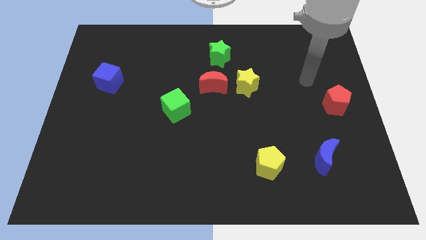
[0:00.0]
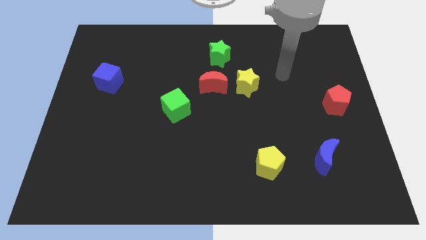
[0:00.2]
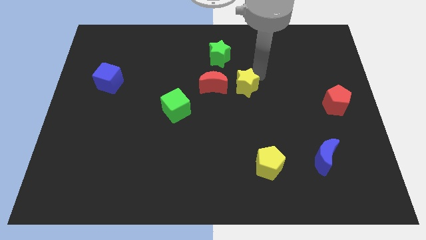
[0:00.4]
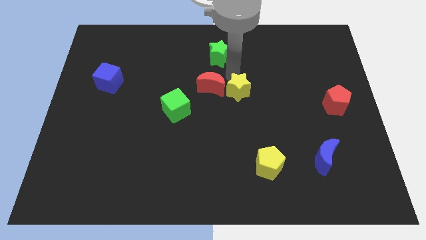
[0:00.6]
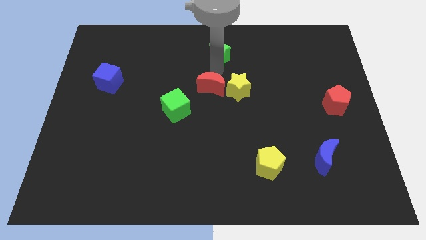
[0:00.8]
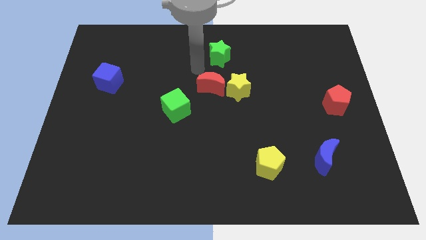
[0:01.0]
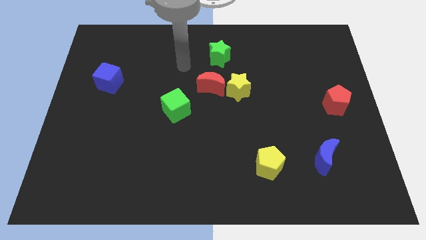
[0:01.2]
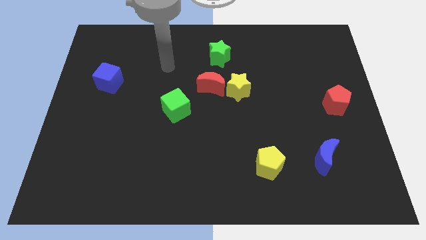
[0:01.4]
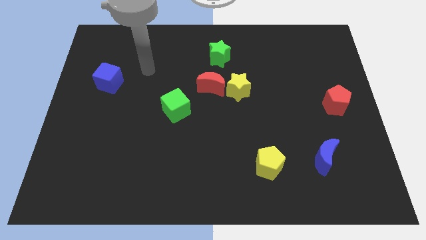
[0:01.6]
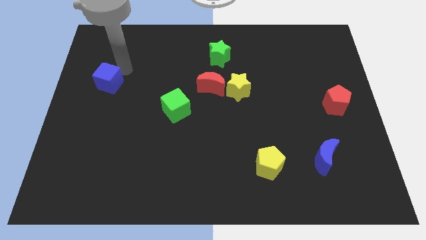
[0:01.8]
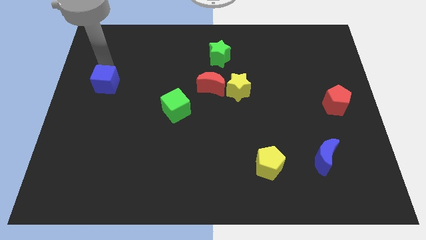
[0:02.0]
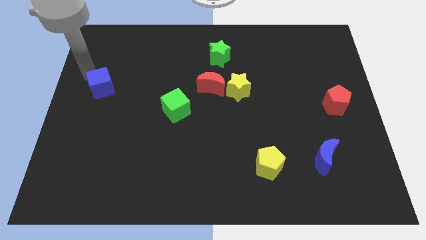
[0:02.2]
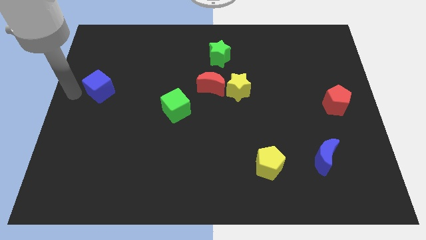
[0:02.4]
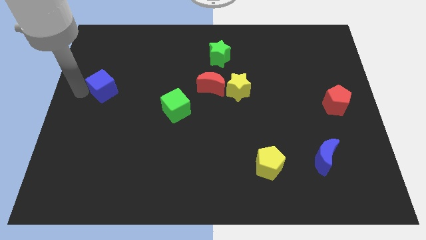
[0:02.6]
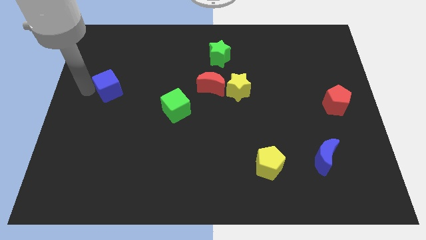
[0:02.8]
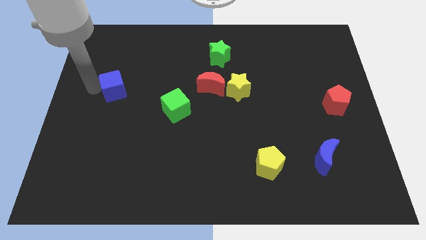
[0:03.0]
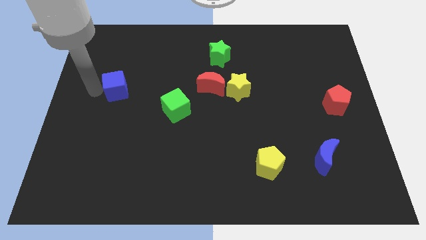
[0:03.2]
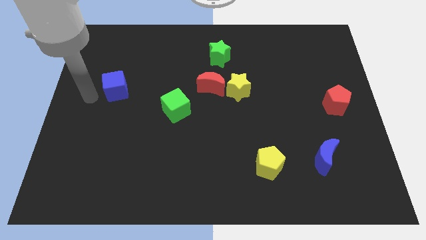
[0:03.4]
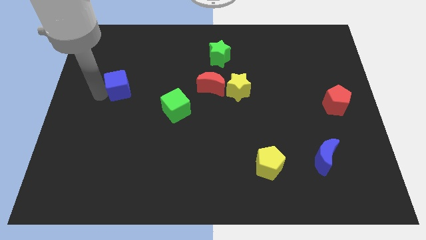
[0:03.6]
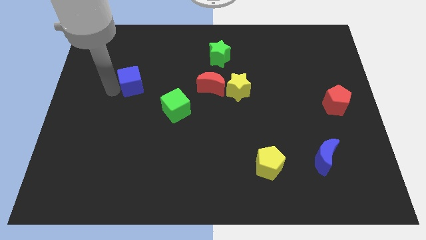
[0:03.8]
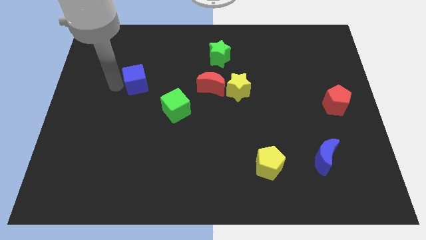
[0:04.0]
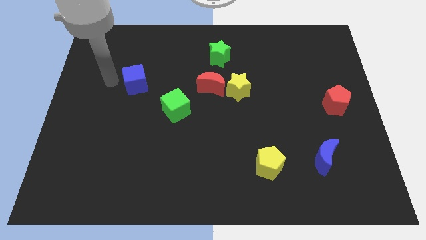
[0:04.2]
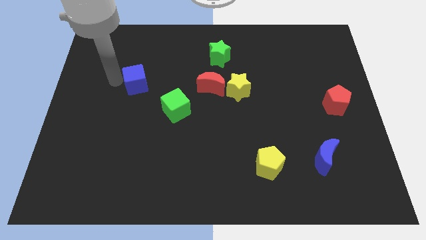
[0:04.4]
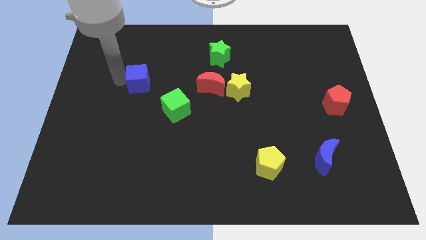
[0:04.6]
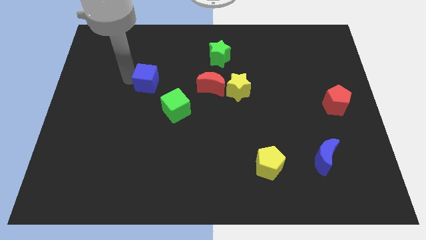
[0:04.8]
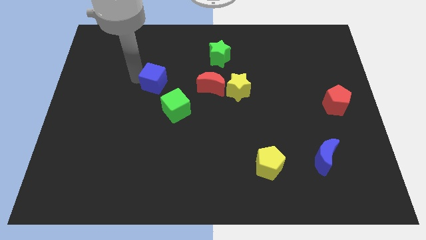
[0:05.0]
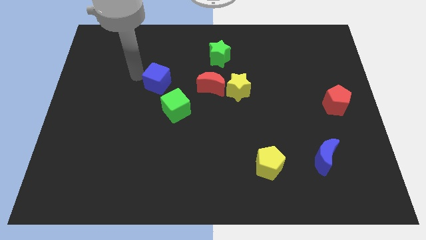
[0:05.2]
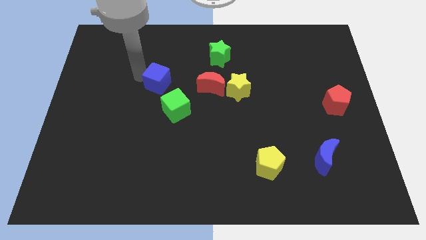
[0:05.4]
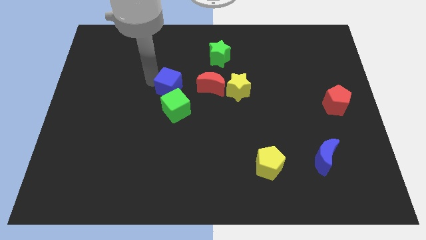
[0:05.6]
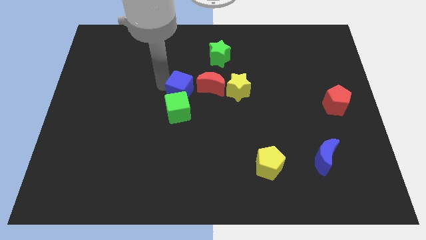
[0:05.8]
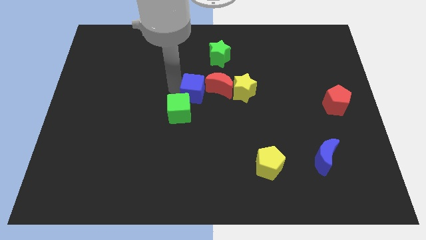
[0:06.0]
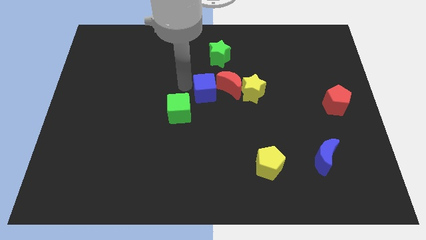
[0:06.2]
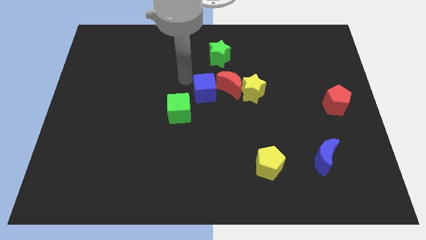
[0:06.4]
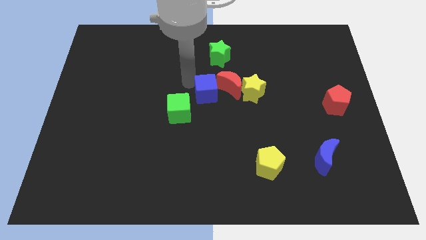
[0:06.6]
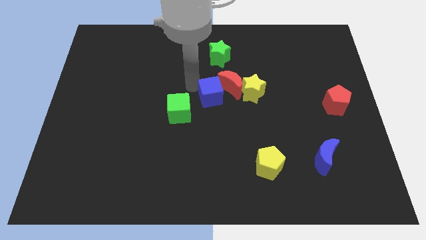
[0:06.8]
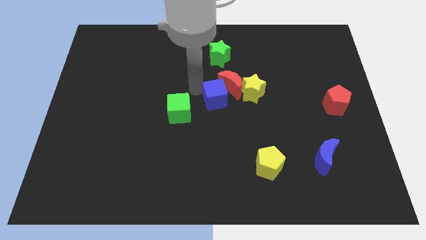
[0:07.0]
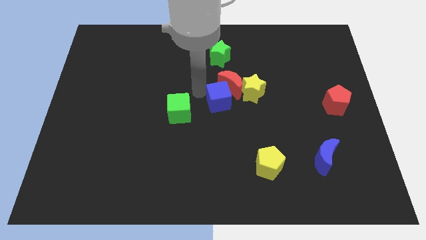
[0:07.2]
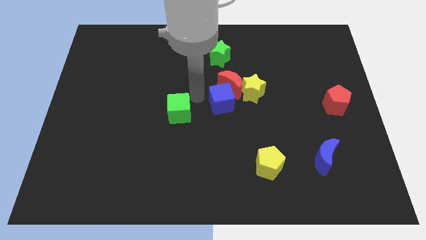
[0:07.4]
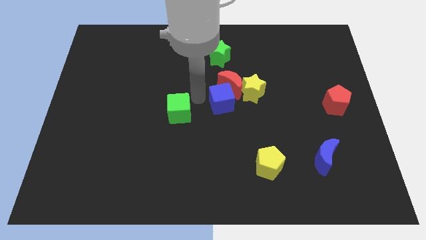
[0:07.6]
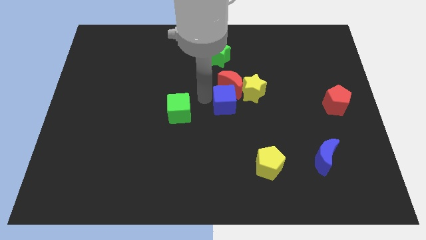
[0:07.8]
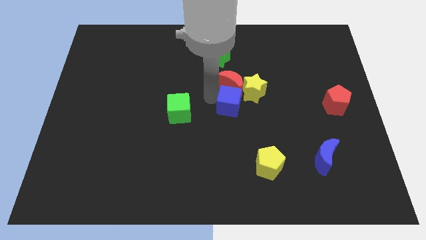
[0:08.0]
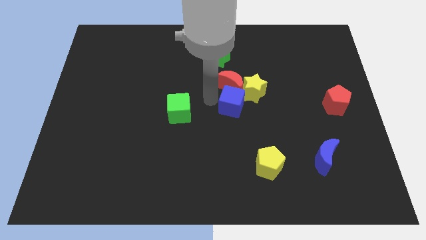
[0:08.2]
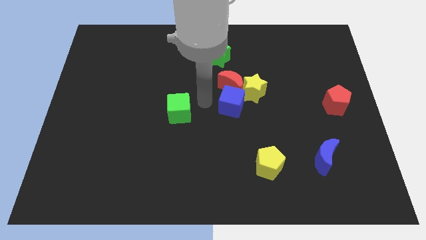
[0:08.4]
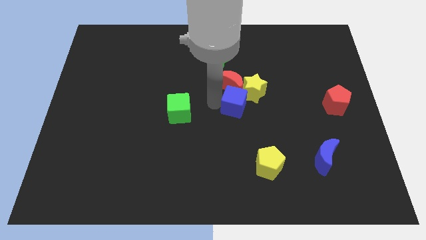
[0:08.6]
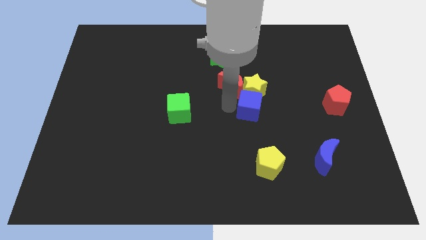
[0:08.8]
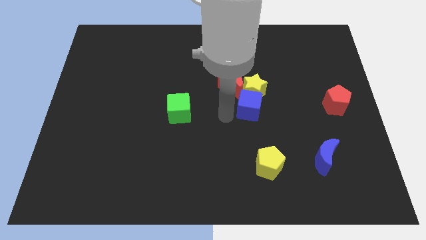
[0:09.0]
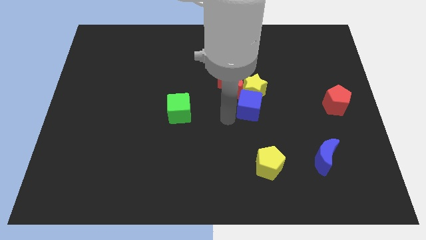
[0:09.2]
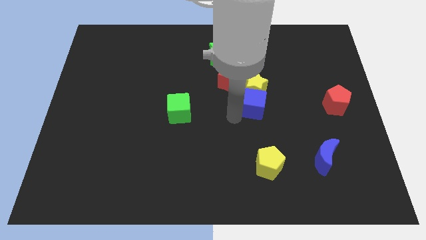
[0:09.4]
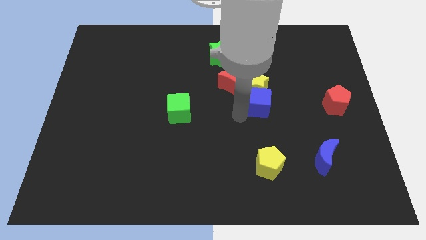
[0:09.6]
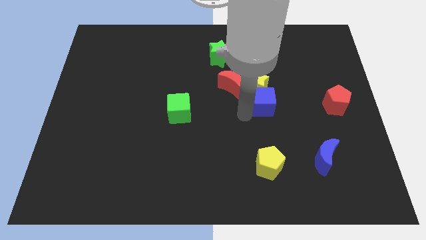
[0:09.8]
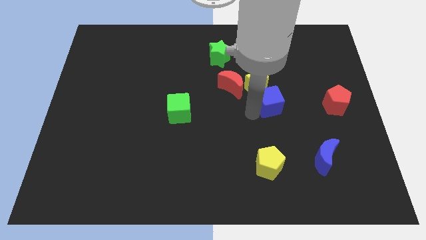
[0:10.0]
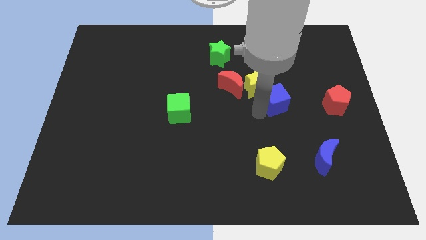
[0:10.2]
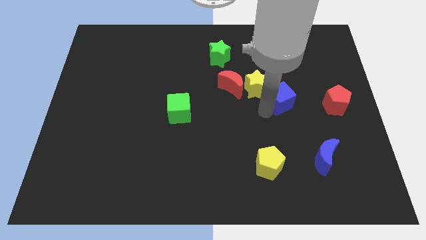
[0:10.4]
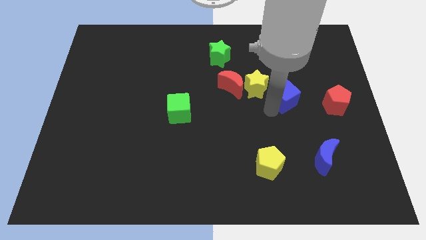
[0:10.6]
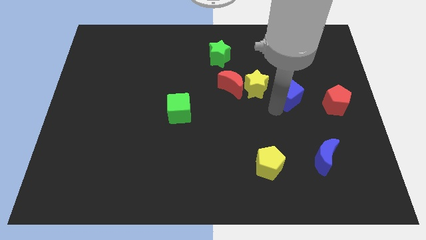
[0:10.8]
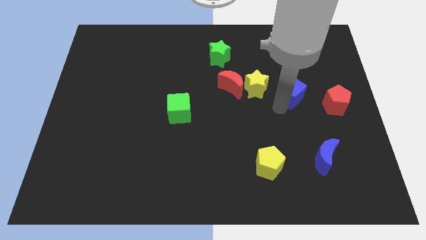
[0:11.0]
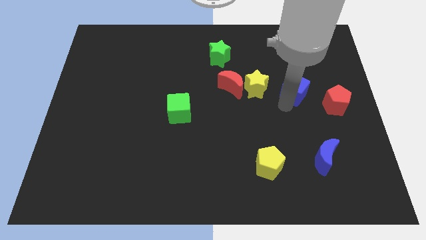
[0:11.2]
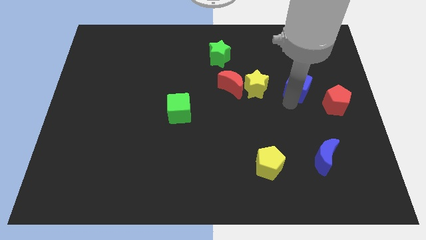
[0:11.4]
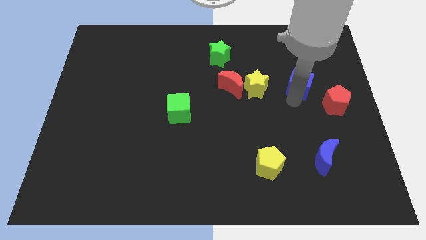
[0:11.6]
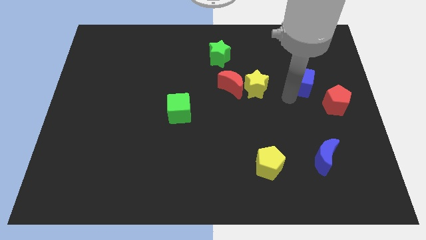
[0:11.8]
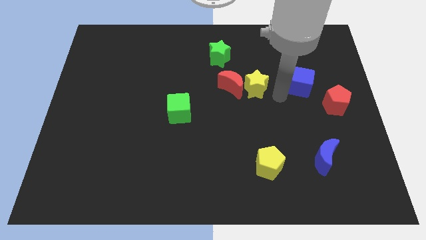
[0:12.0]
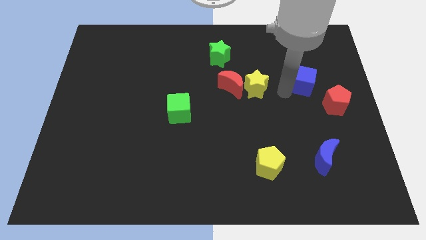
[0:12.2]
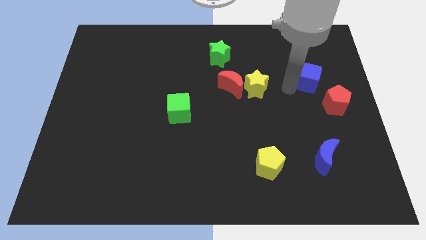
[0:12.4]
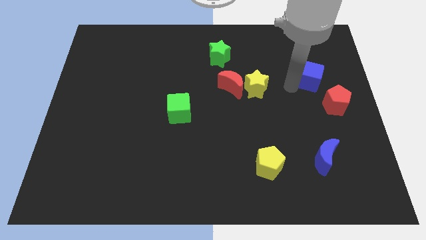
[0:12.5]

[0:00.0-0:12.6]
push the blue cube above the red pentagon

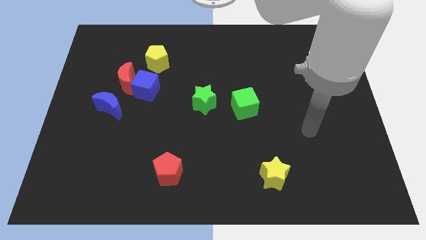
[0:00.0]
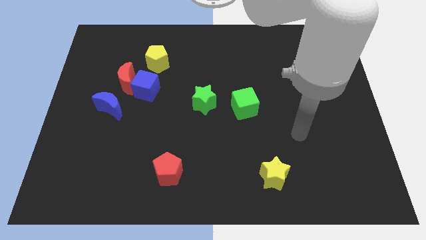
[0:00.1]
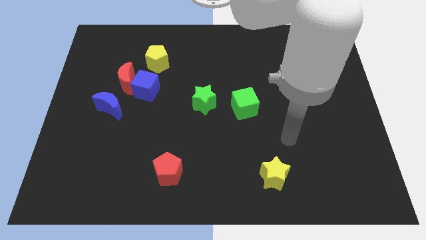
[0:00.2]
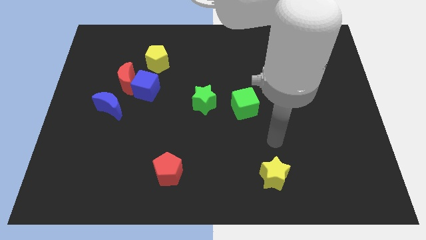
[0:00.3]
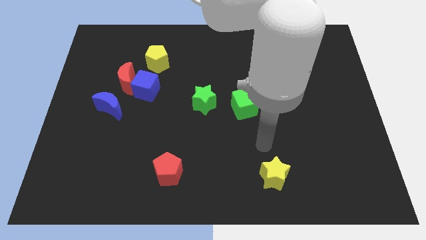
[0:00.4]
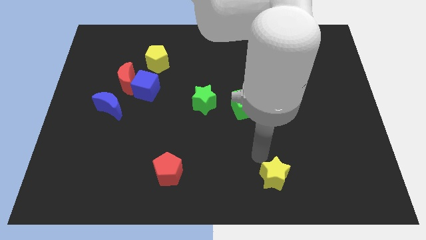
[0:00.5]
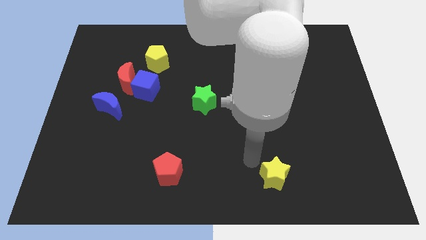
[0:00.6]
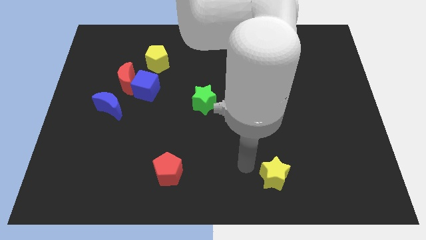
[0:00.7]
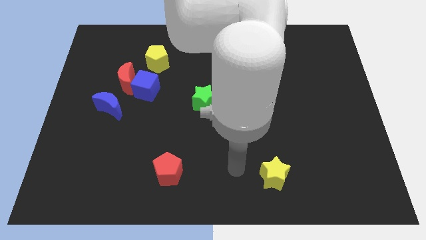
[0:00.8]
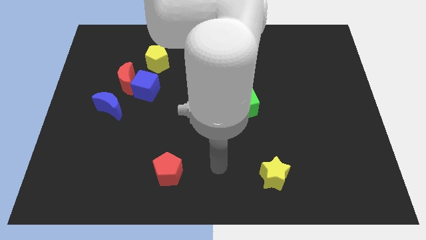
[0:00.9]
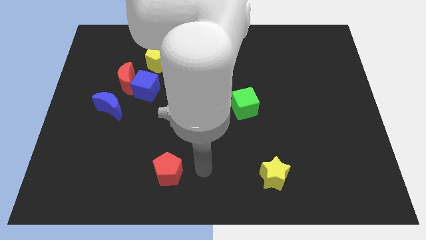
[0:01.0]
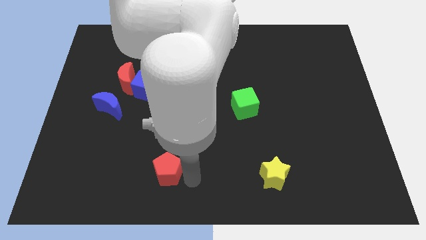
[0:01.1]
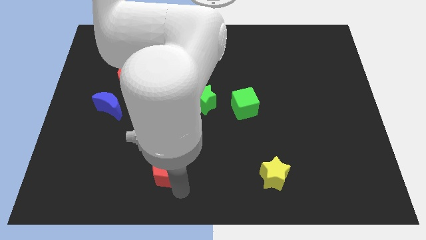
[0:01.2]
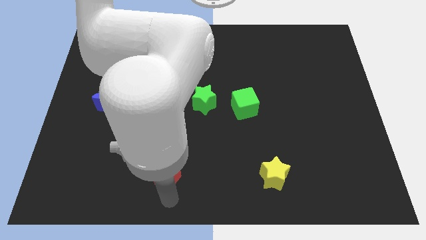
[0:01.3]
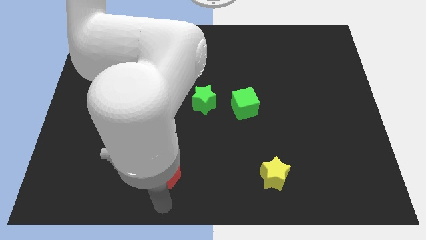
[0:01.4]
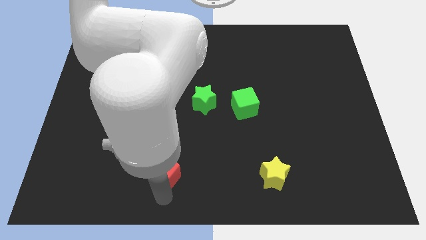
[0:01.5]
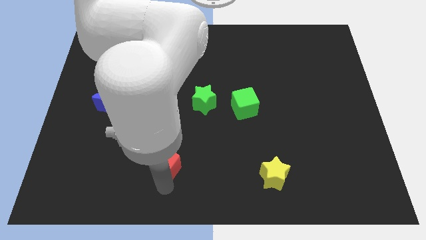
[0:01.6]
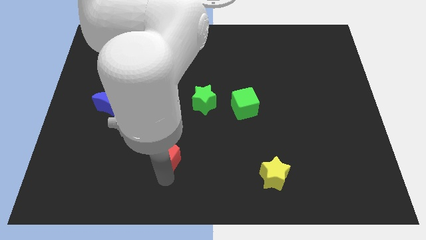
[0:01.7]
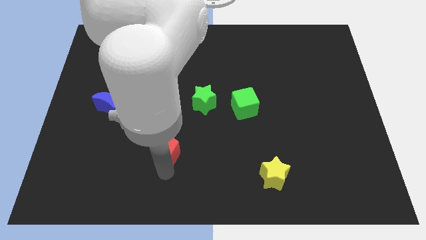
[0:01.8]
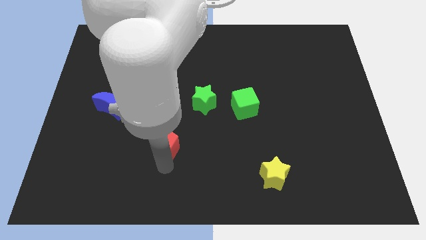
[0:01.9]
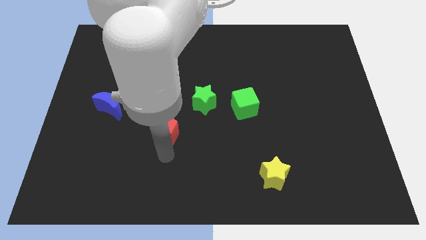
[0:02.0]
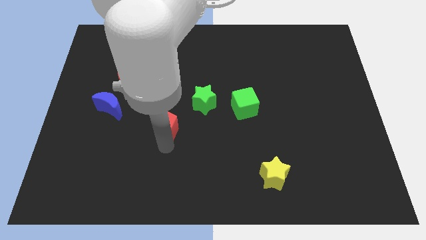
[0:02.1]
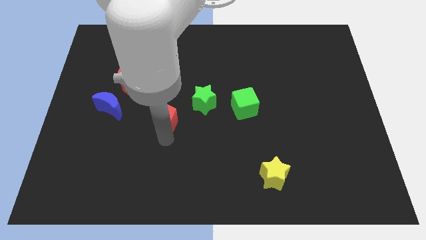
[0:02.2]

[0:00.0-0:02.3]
move the red pentagon diagonally down and to the right of the blue cube
